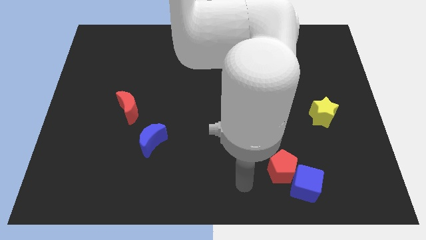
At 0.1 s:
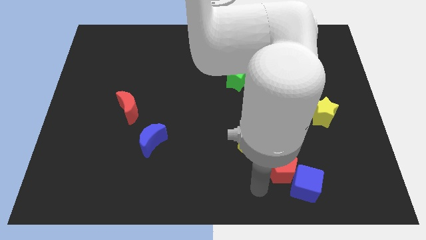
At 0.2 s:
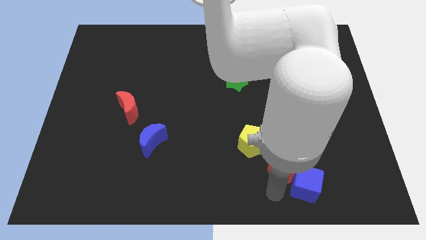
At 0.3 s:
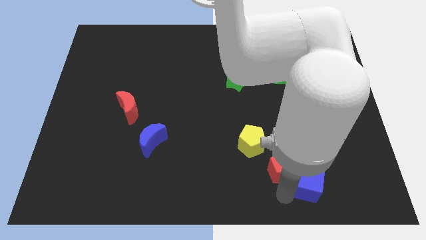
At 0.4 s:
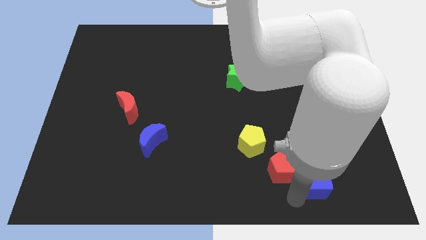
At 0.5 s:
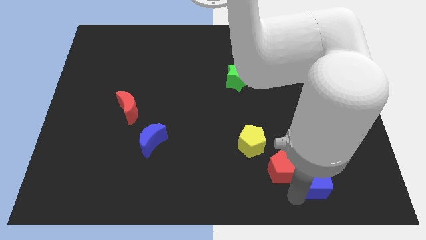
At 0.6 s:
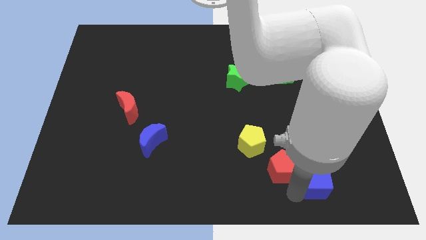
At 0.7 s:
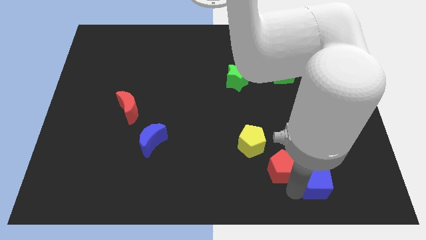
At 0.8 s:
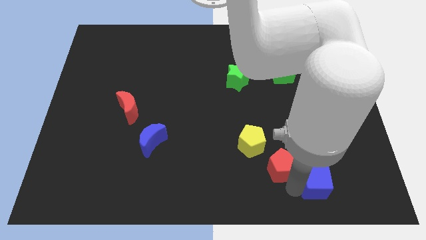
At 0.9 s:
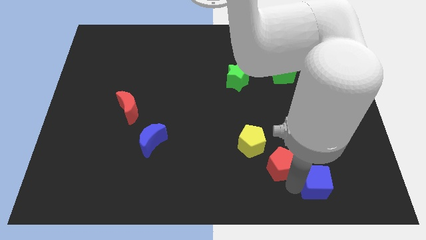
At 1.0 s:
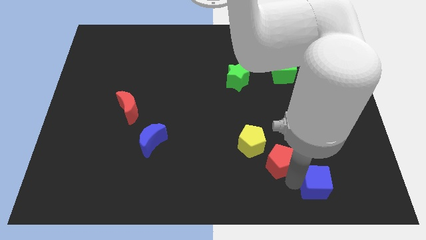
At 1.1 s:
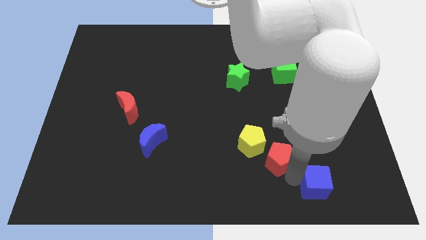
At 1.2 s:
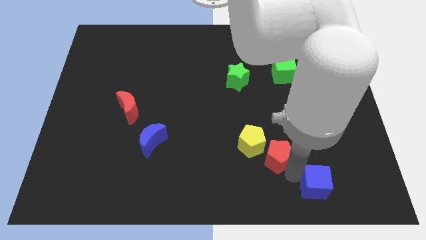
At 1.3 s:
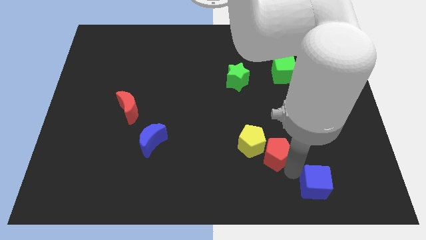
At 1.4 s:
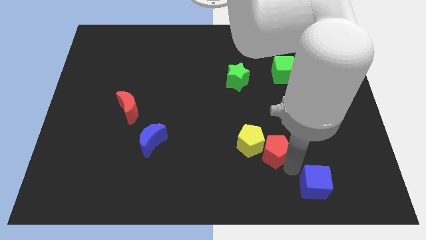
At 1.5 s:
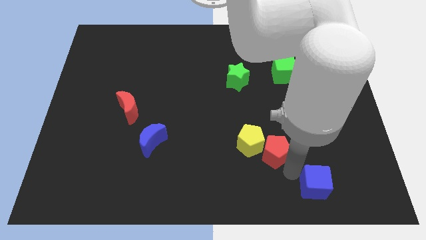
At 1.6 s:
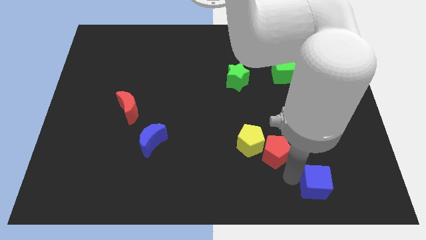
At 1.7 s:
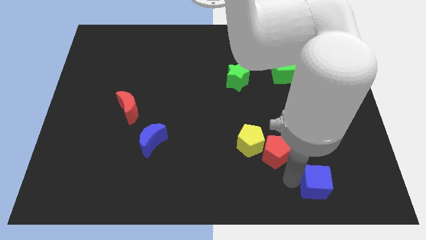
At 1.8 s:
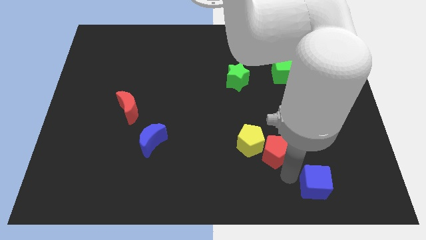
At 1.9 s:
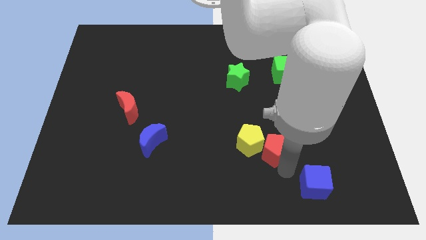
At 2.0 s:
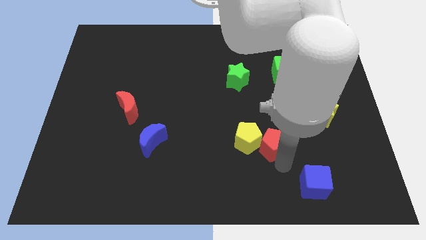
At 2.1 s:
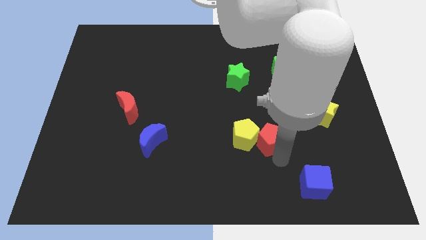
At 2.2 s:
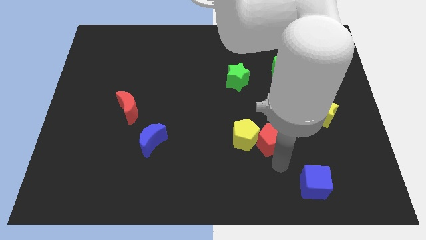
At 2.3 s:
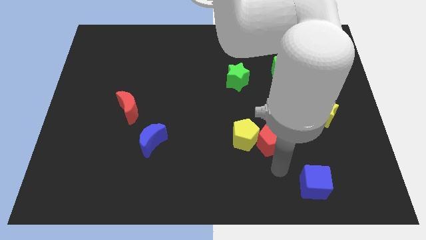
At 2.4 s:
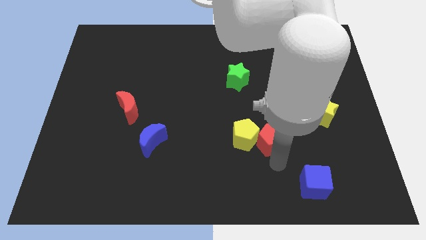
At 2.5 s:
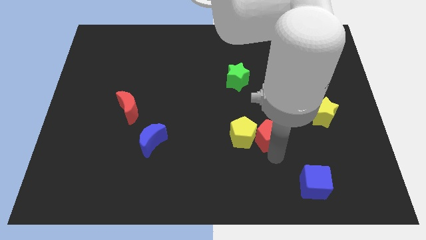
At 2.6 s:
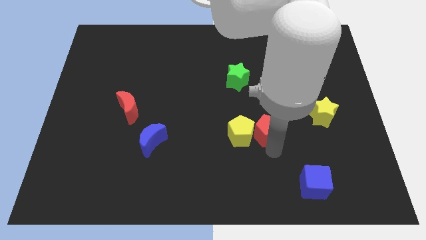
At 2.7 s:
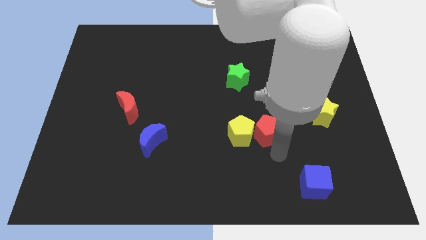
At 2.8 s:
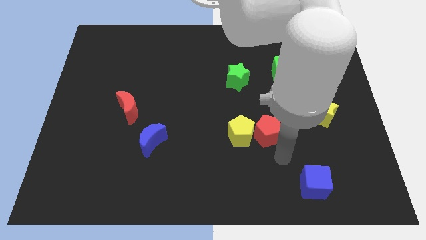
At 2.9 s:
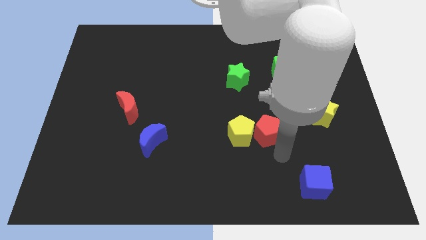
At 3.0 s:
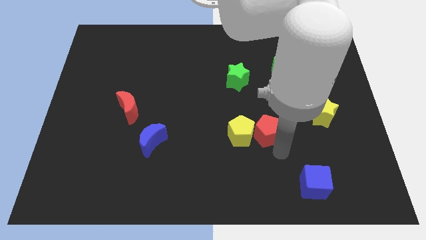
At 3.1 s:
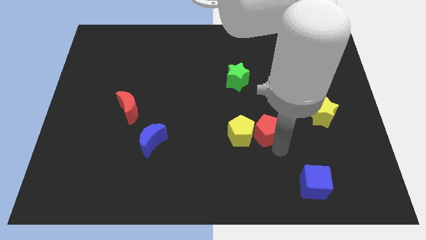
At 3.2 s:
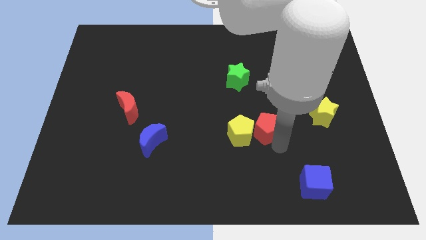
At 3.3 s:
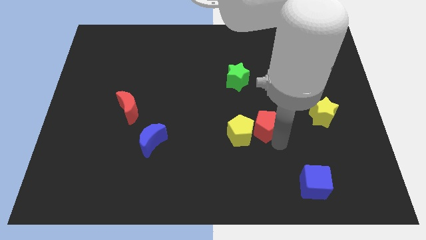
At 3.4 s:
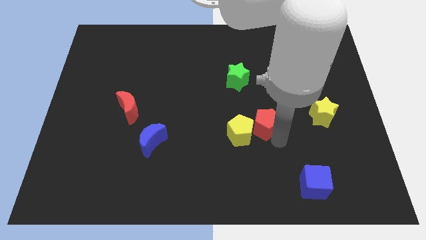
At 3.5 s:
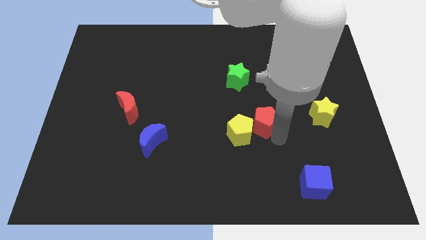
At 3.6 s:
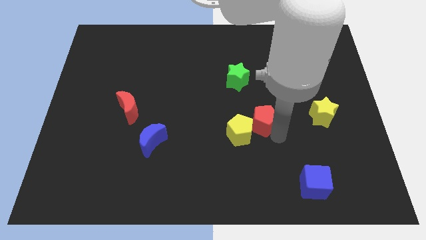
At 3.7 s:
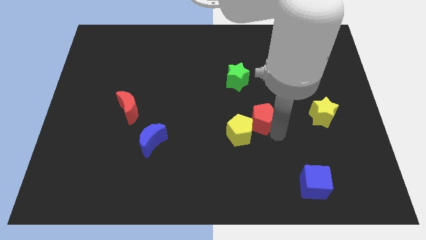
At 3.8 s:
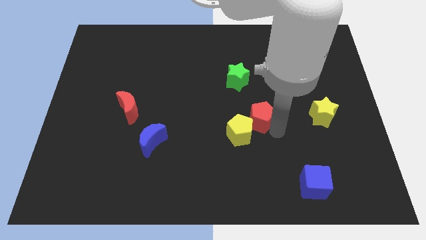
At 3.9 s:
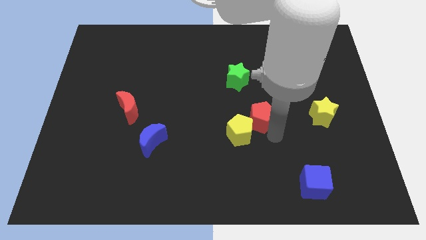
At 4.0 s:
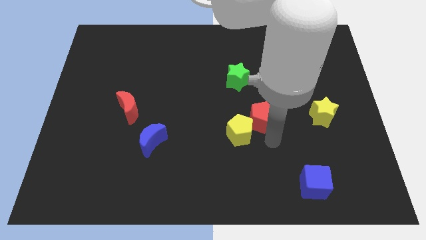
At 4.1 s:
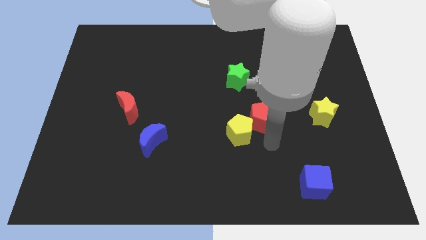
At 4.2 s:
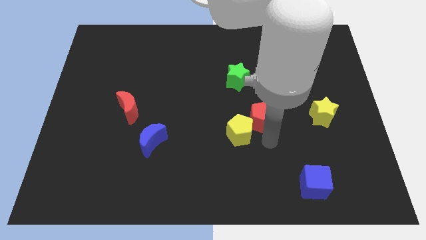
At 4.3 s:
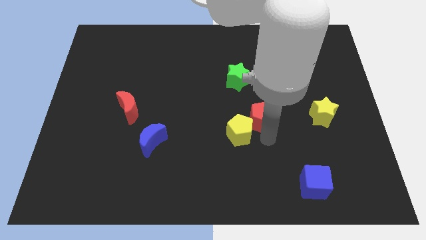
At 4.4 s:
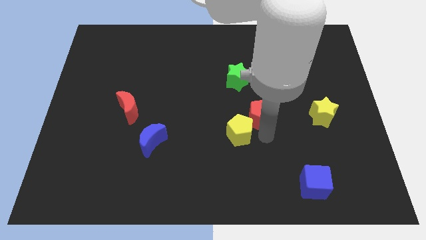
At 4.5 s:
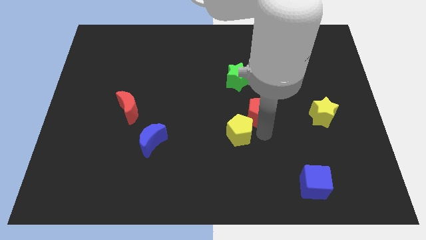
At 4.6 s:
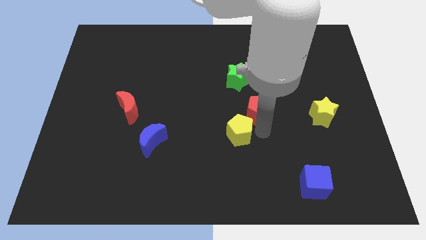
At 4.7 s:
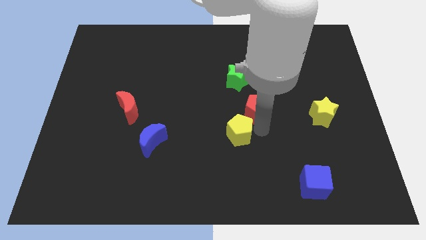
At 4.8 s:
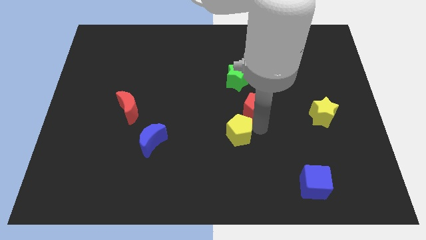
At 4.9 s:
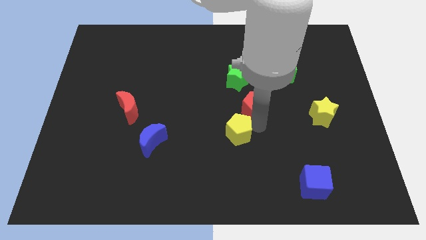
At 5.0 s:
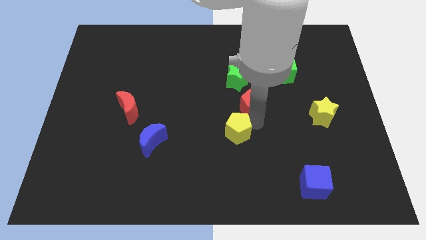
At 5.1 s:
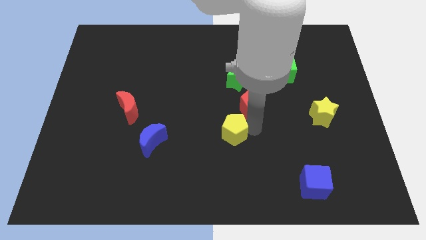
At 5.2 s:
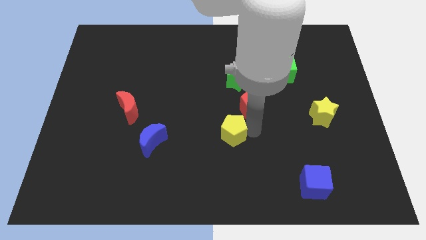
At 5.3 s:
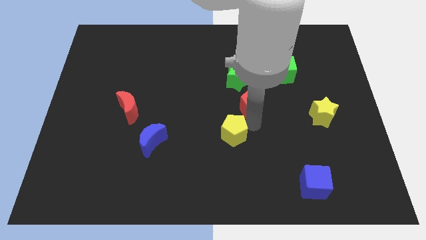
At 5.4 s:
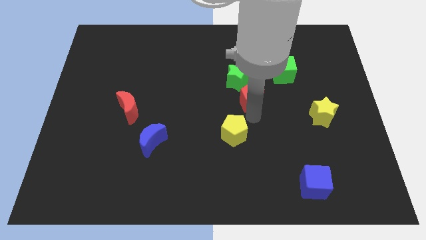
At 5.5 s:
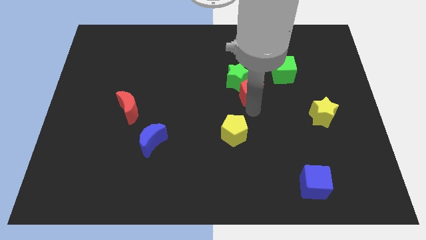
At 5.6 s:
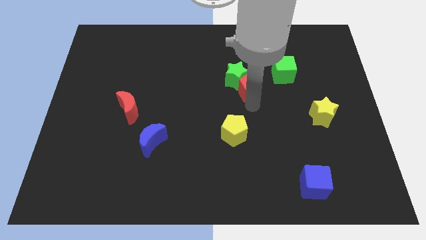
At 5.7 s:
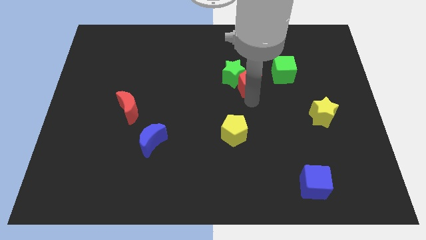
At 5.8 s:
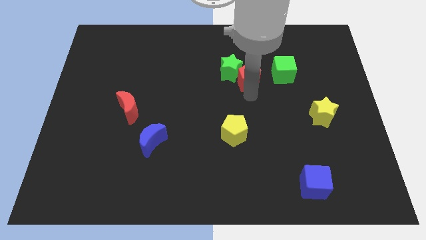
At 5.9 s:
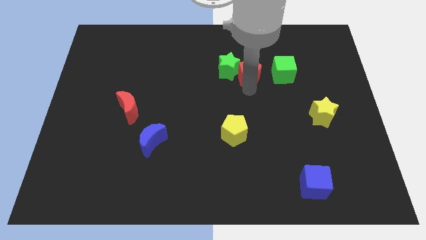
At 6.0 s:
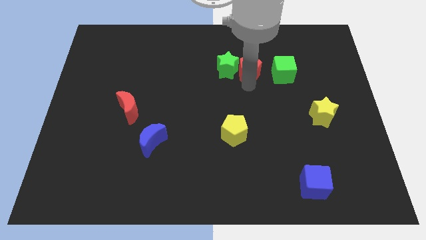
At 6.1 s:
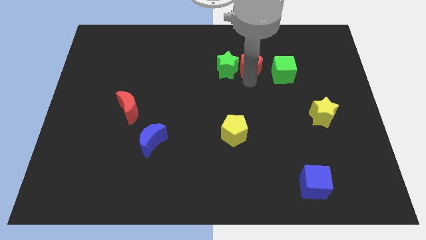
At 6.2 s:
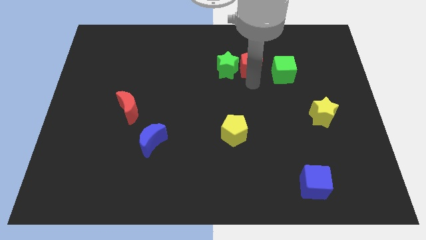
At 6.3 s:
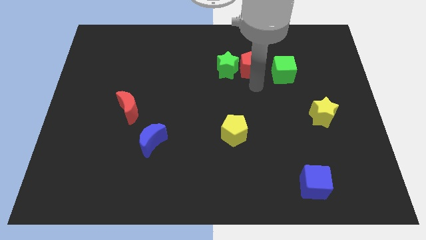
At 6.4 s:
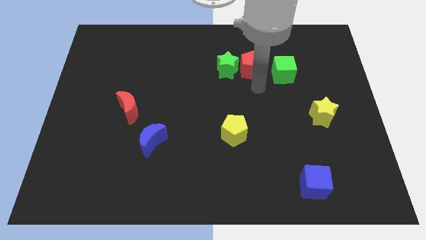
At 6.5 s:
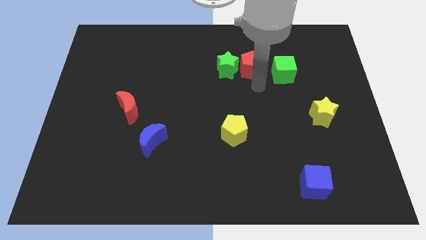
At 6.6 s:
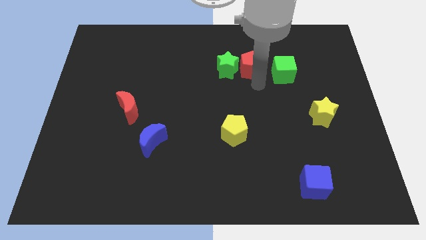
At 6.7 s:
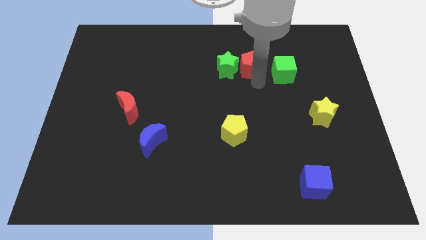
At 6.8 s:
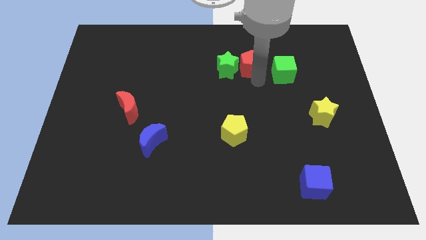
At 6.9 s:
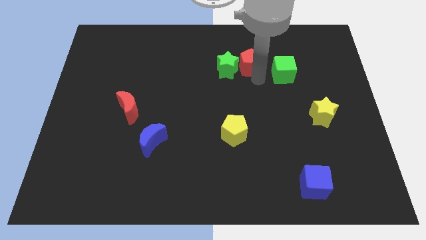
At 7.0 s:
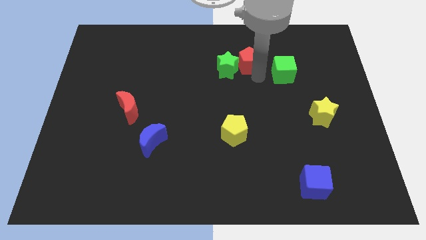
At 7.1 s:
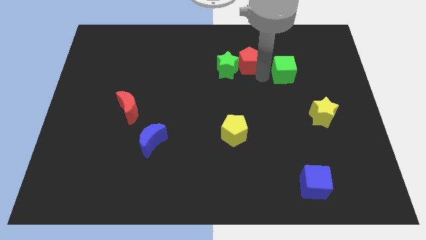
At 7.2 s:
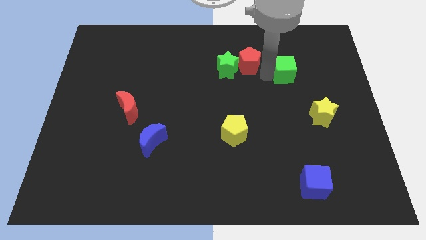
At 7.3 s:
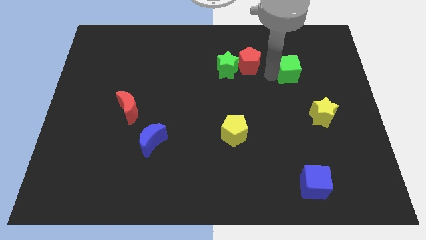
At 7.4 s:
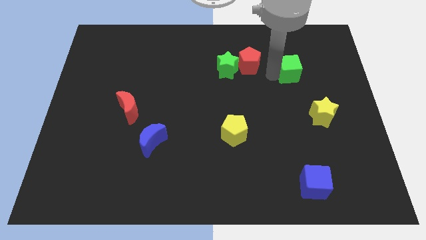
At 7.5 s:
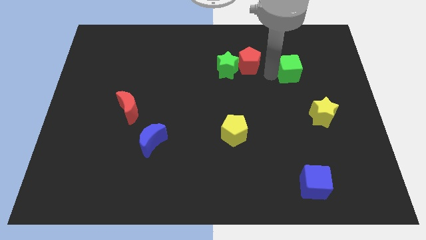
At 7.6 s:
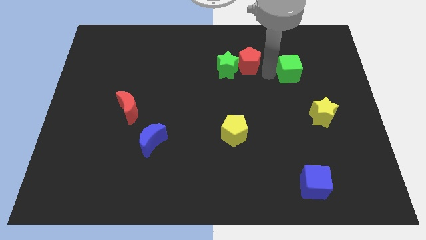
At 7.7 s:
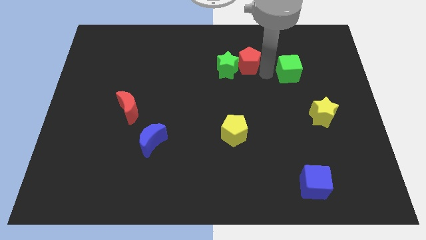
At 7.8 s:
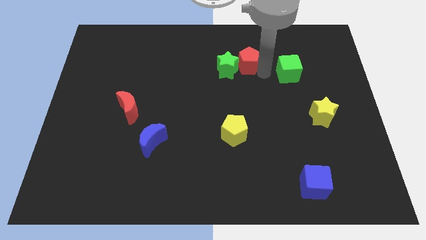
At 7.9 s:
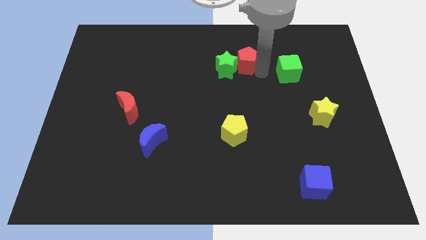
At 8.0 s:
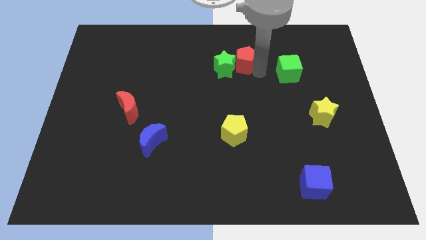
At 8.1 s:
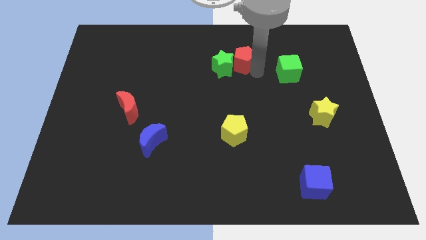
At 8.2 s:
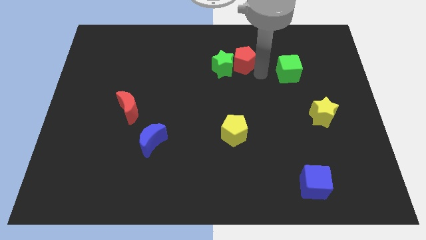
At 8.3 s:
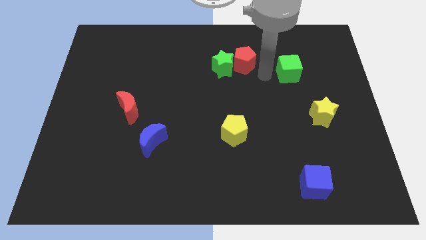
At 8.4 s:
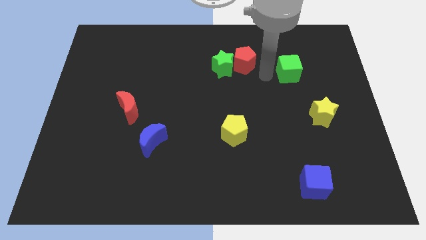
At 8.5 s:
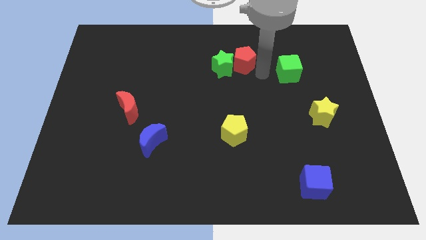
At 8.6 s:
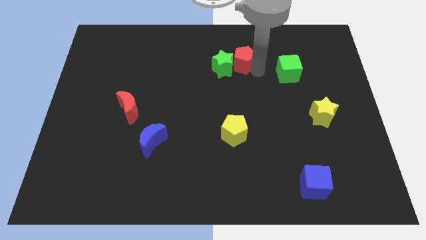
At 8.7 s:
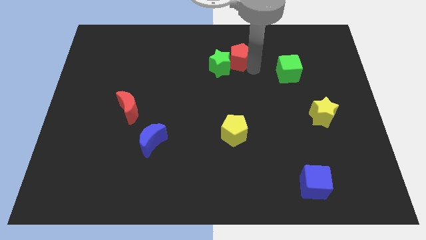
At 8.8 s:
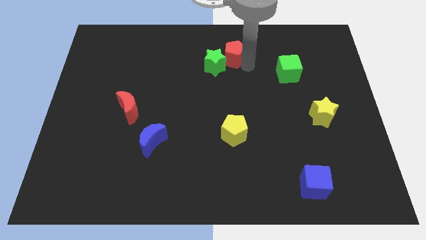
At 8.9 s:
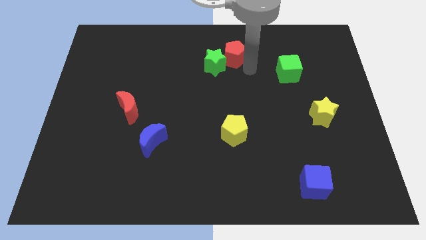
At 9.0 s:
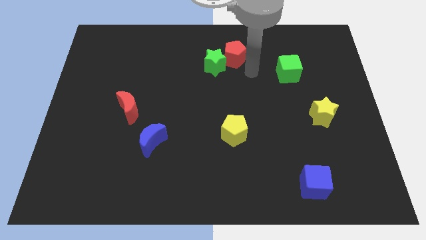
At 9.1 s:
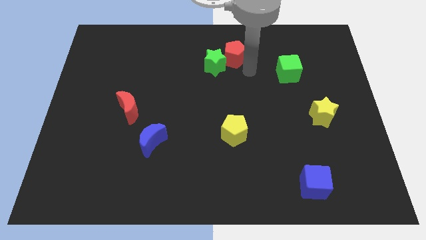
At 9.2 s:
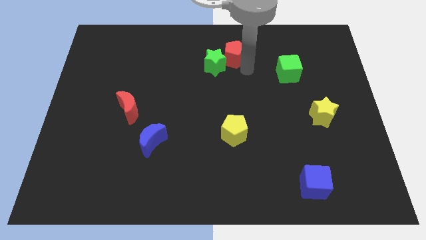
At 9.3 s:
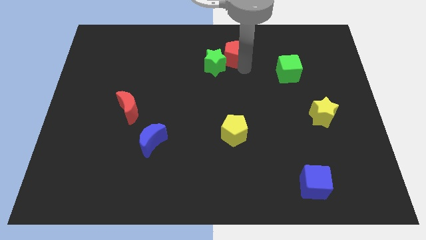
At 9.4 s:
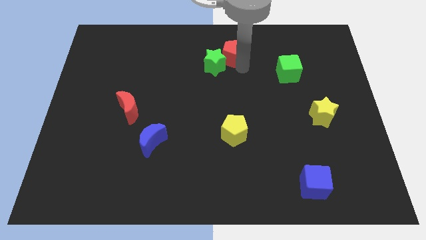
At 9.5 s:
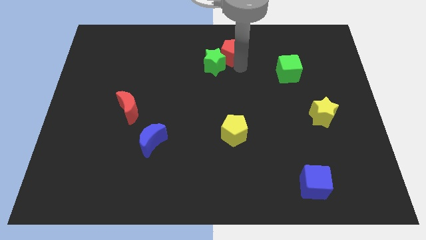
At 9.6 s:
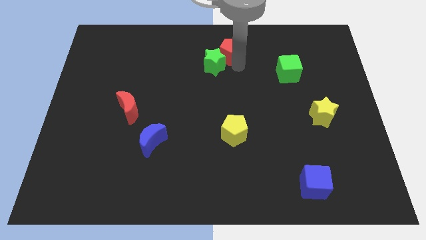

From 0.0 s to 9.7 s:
push the red pentagon to the top
